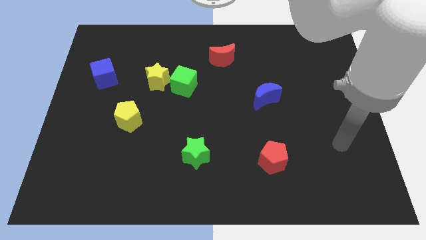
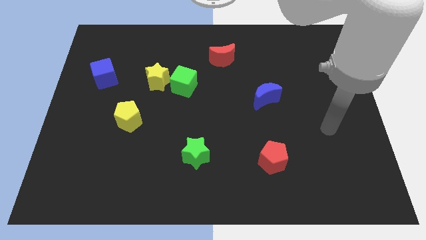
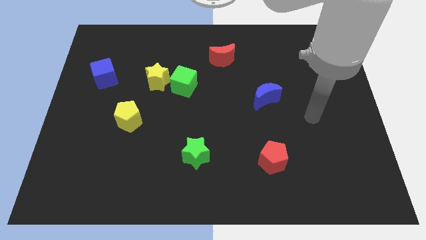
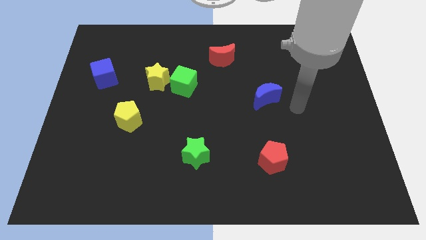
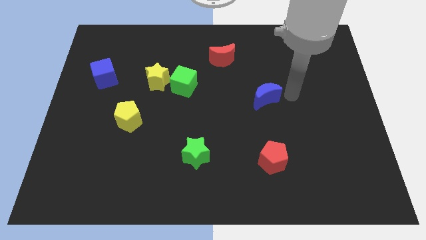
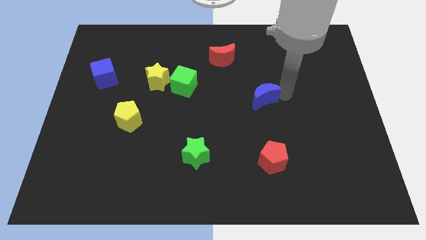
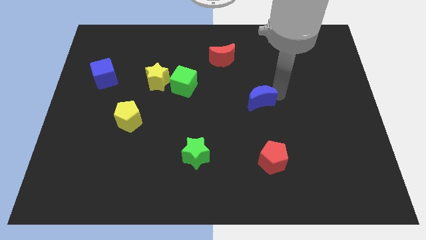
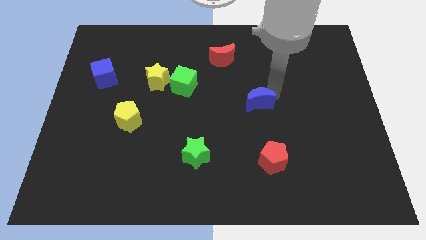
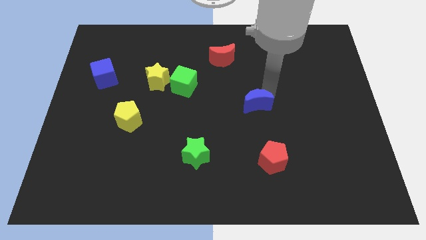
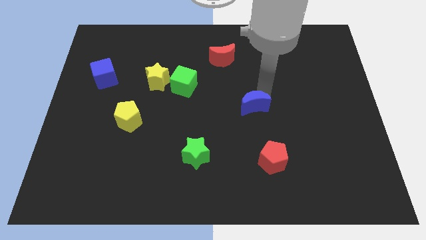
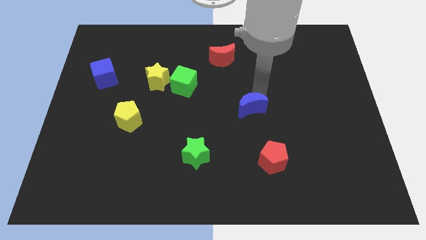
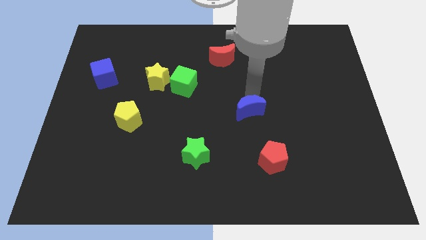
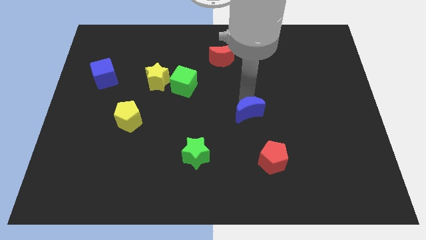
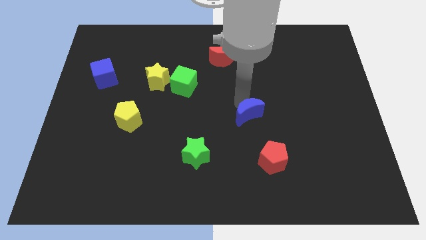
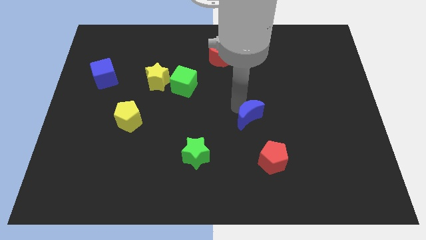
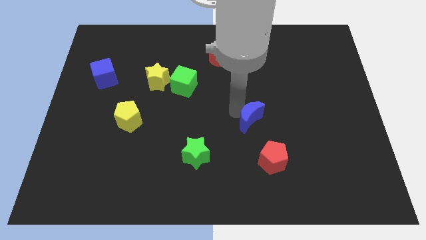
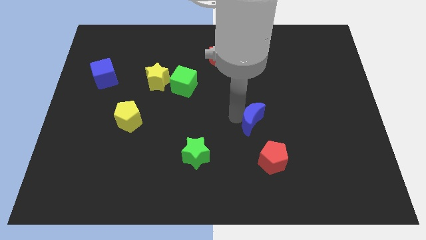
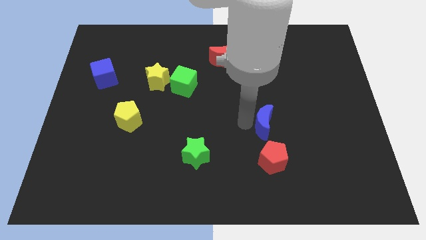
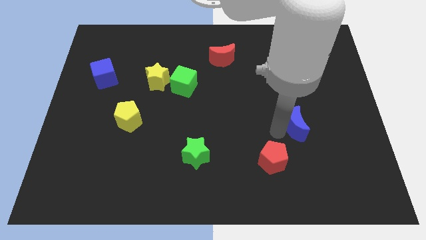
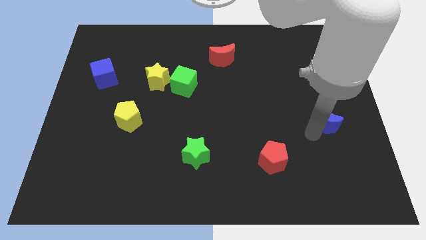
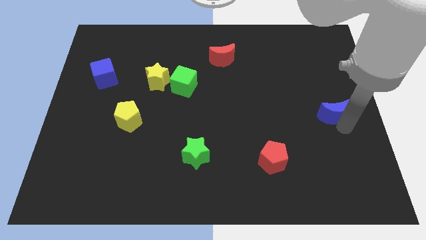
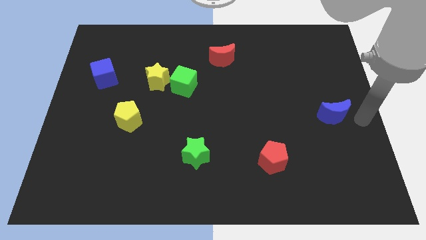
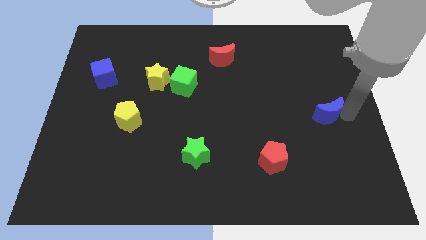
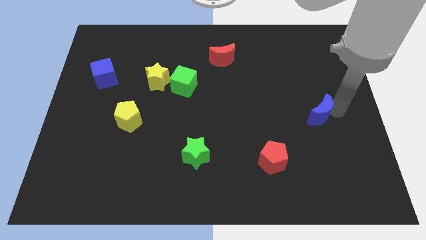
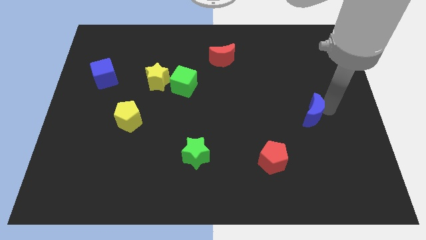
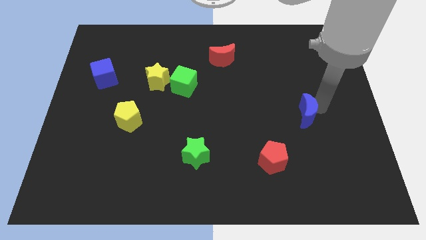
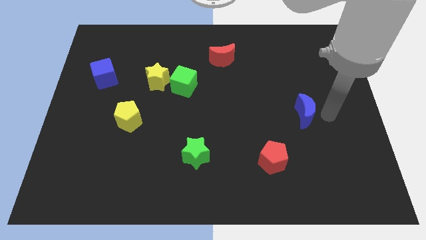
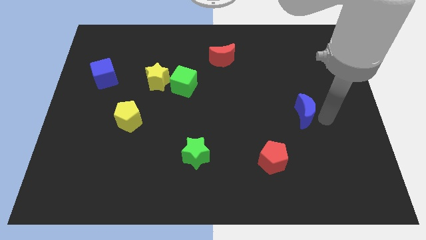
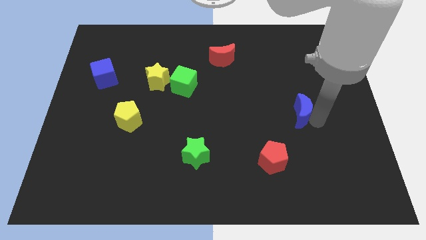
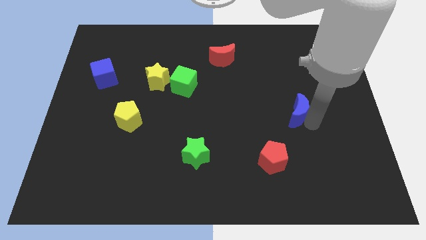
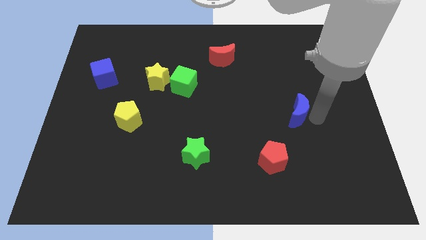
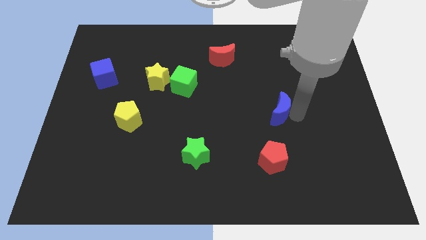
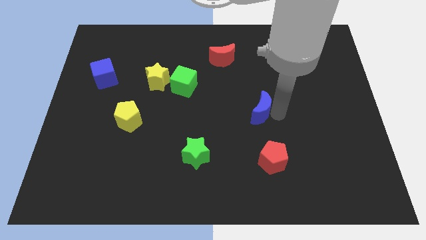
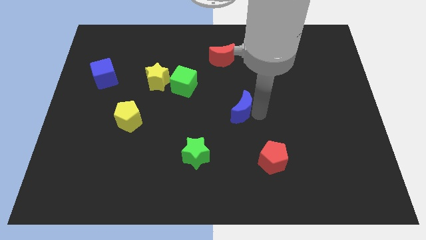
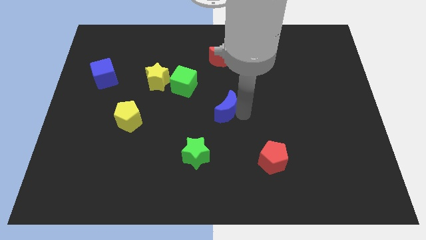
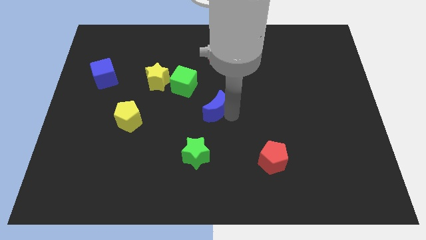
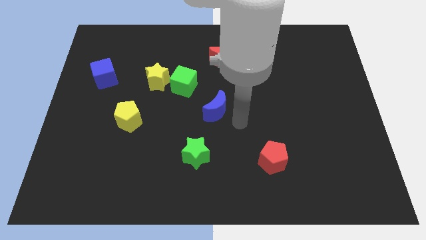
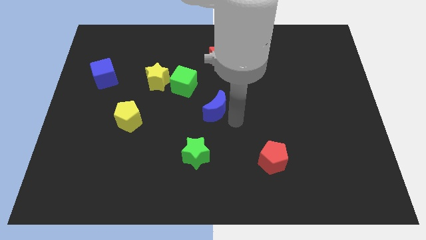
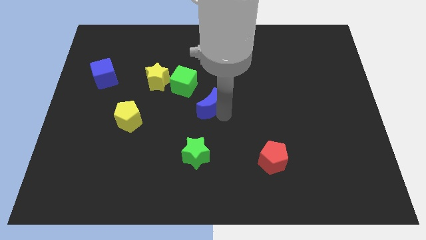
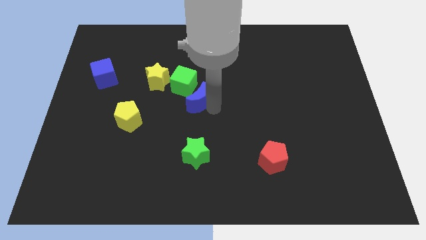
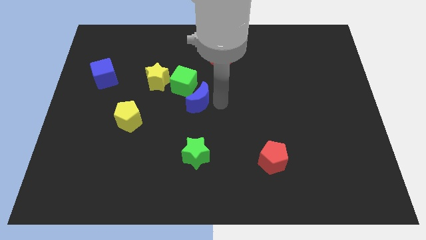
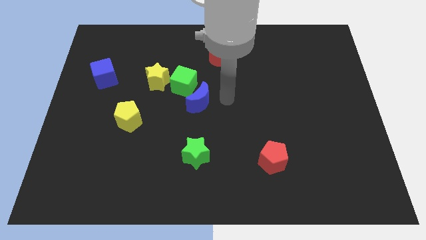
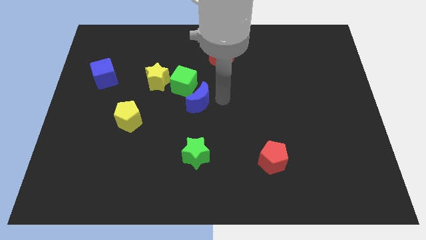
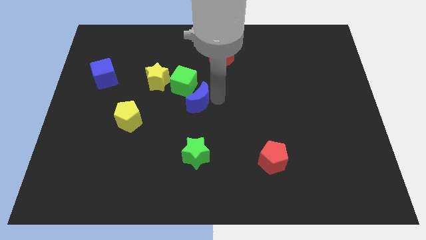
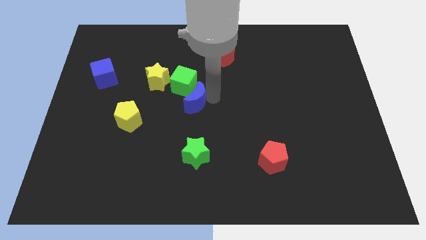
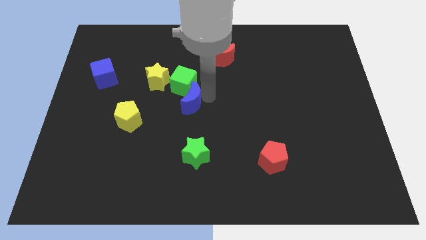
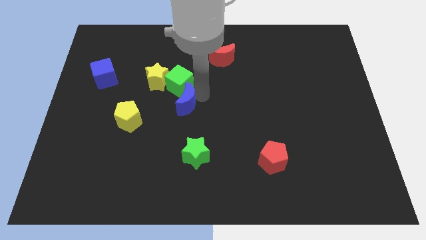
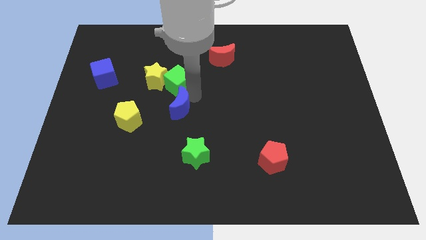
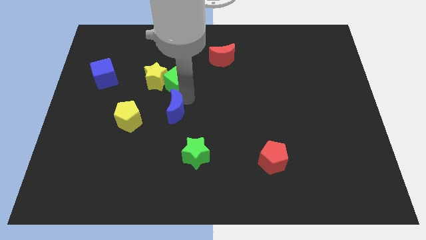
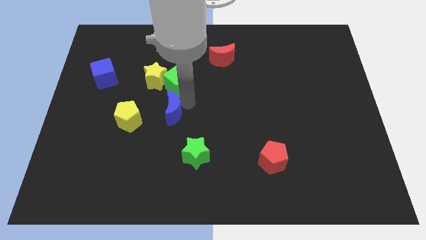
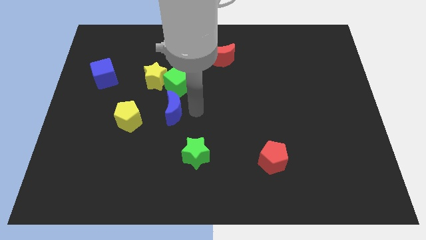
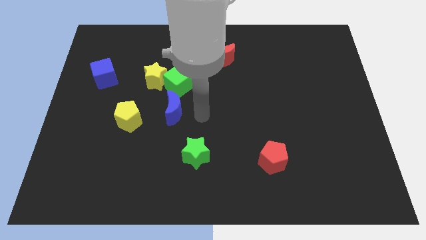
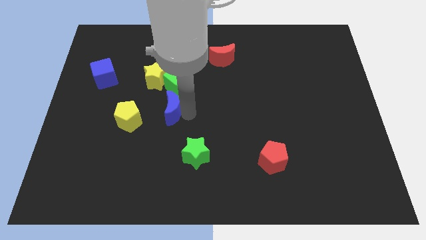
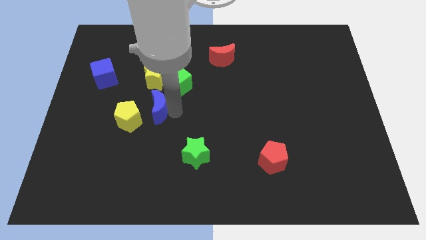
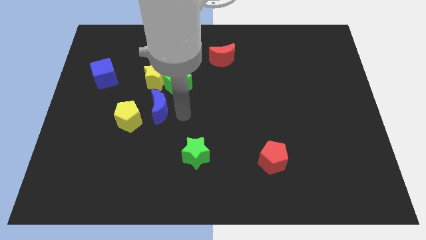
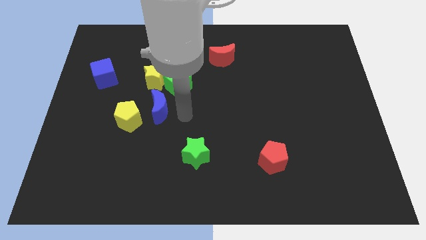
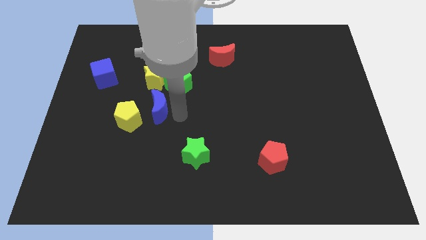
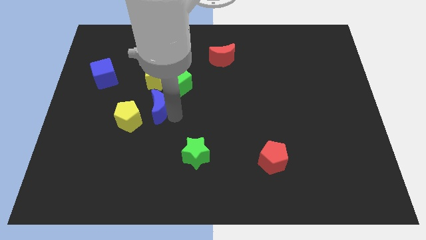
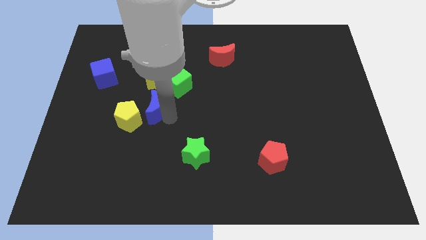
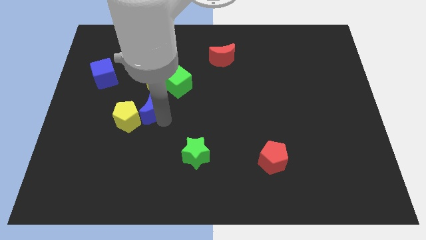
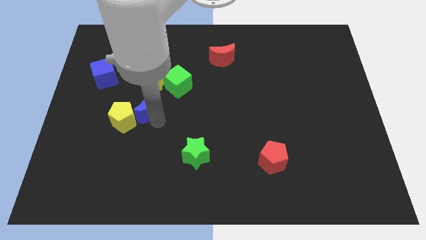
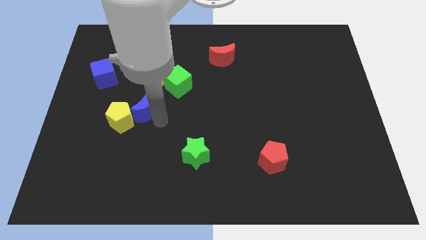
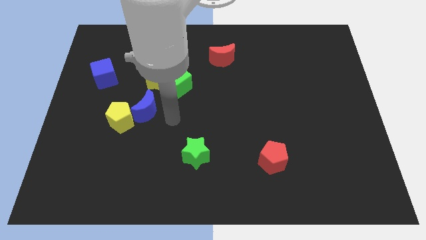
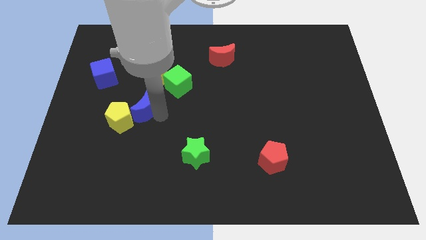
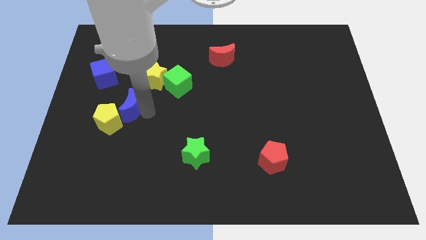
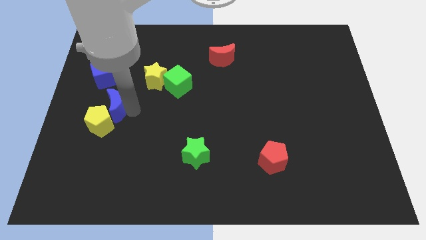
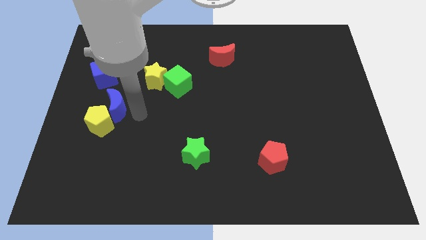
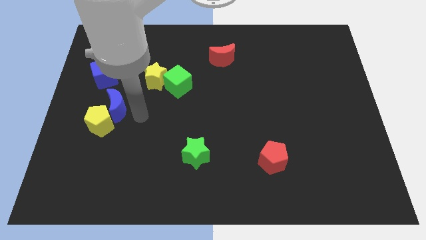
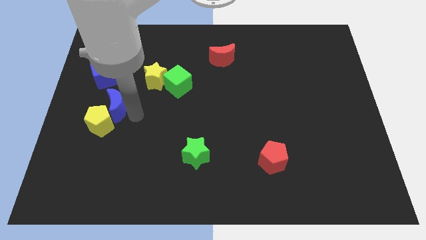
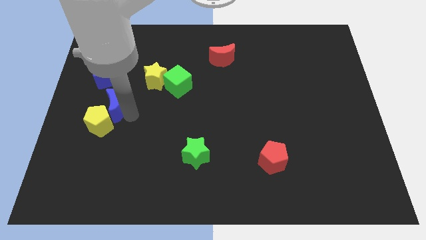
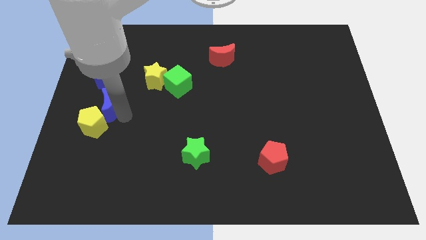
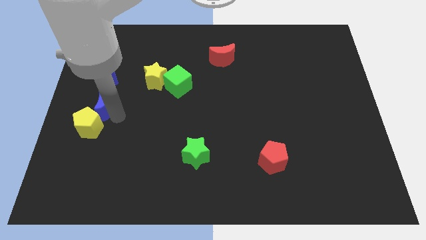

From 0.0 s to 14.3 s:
put the blue moon to the left side of the board
